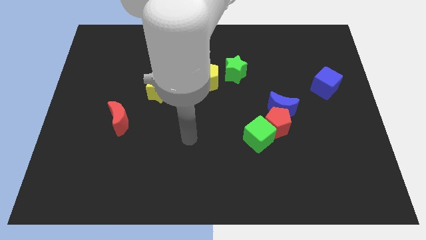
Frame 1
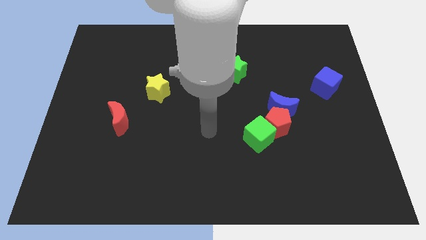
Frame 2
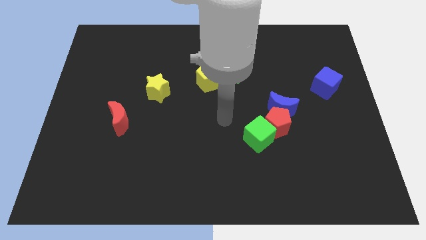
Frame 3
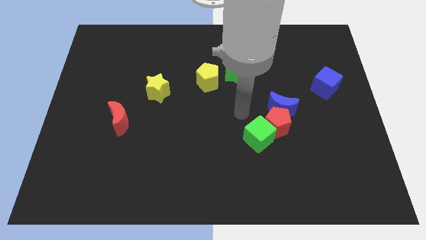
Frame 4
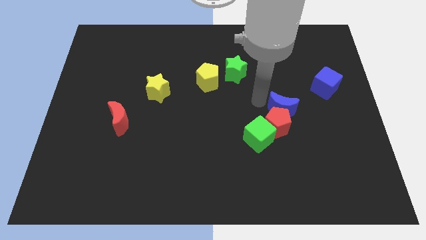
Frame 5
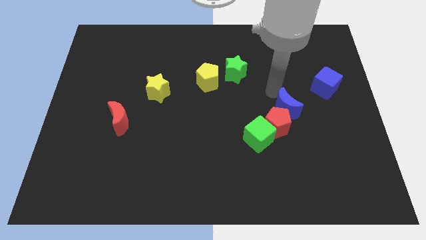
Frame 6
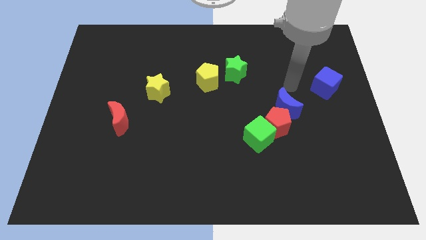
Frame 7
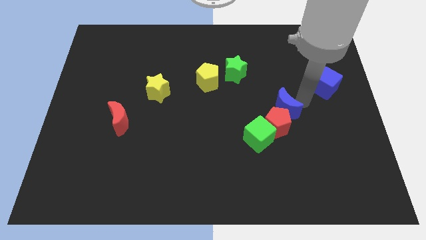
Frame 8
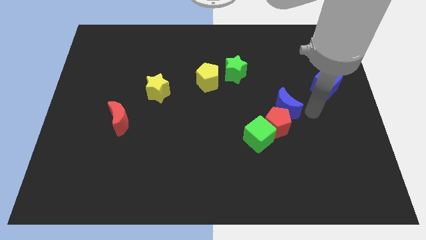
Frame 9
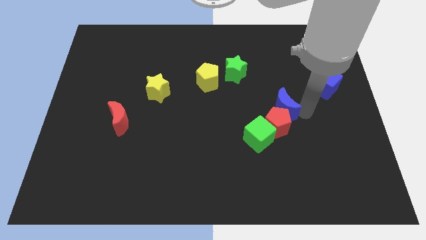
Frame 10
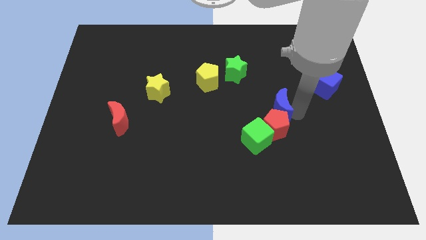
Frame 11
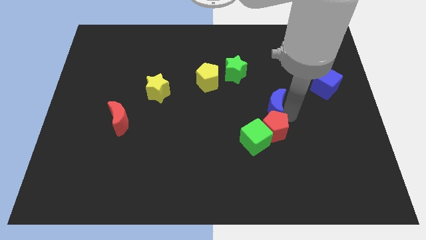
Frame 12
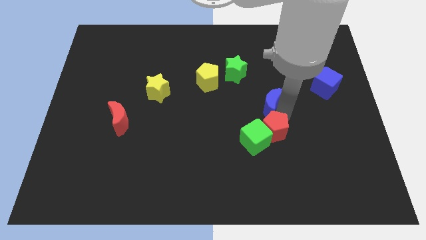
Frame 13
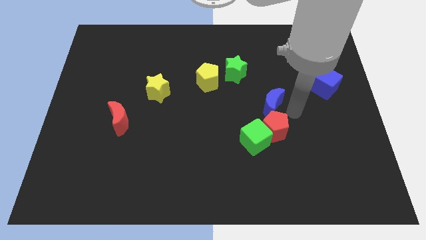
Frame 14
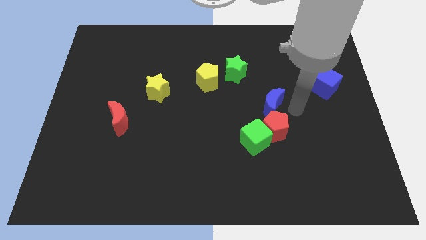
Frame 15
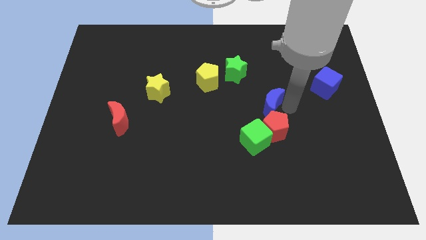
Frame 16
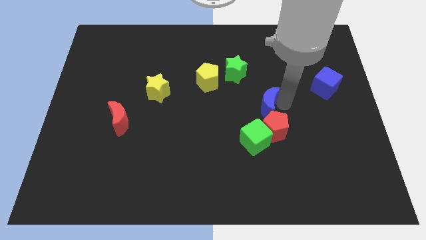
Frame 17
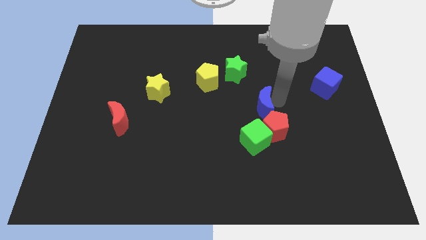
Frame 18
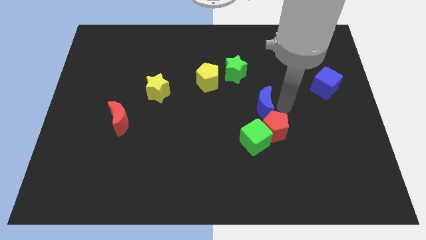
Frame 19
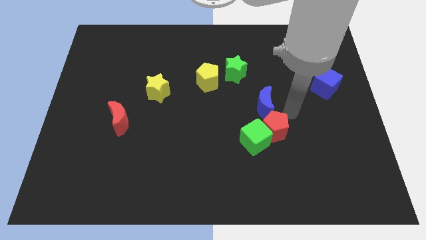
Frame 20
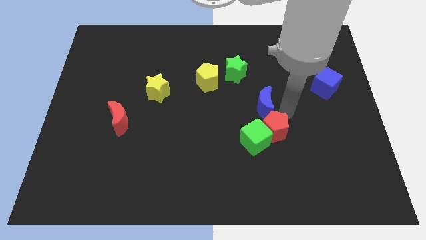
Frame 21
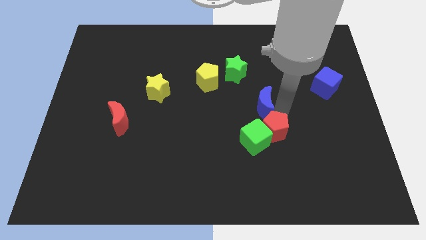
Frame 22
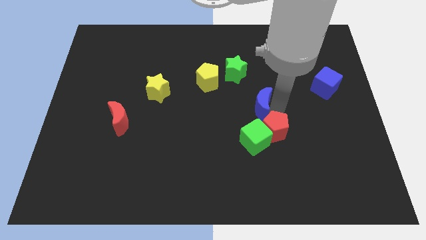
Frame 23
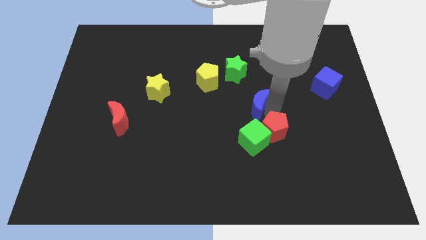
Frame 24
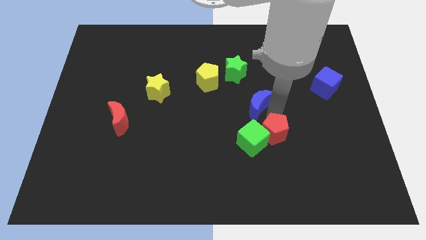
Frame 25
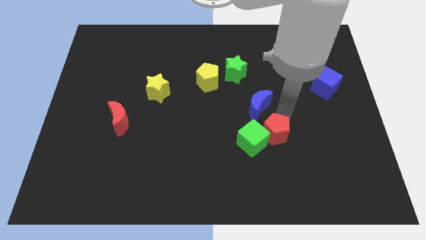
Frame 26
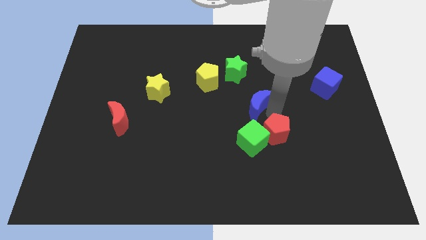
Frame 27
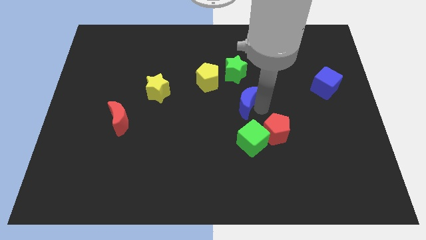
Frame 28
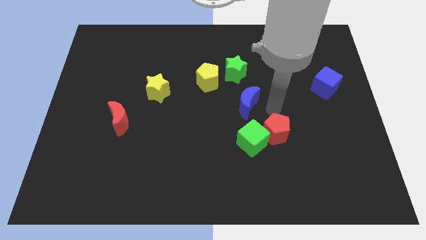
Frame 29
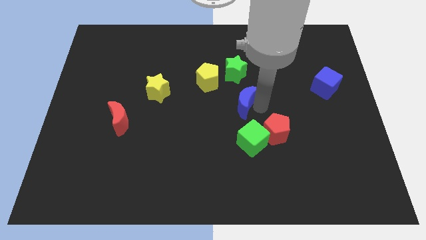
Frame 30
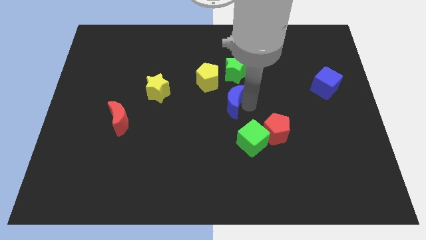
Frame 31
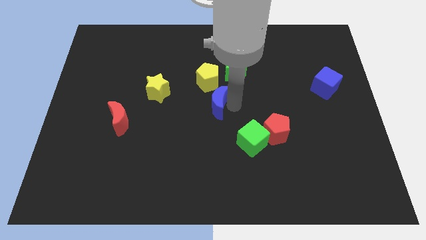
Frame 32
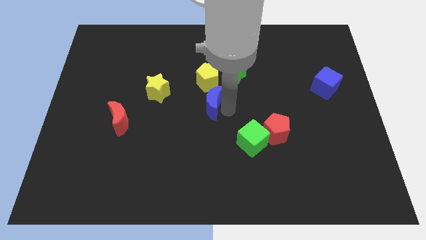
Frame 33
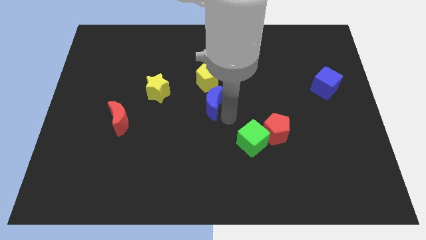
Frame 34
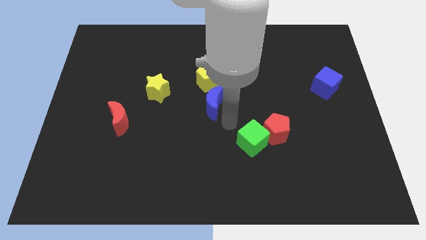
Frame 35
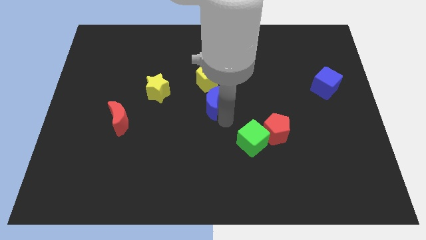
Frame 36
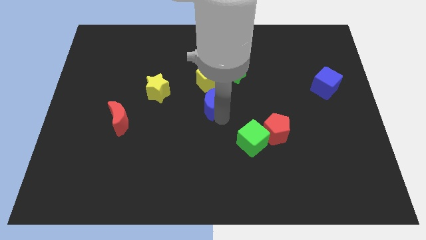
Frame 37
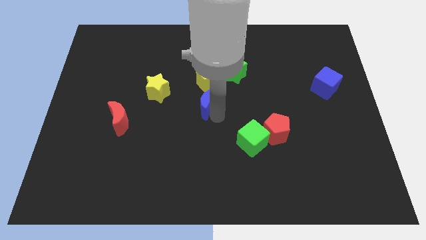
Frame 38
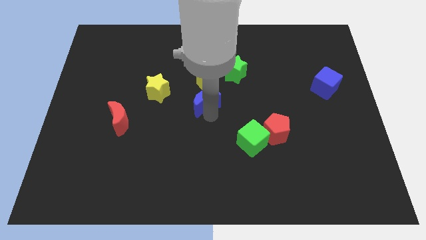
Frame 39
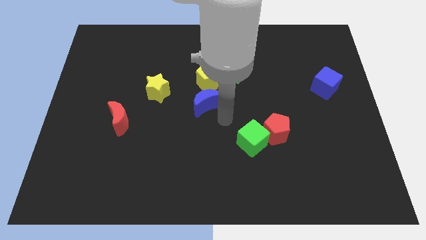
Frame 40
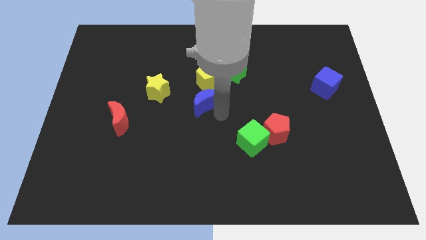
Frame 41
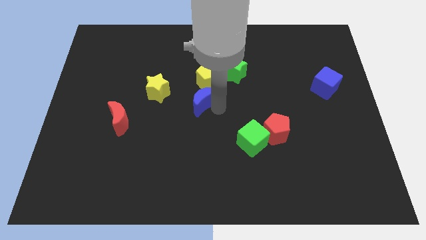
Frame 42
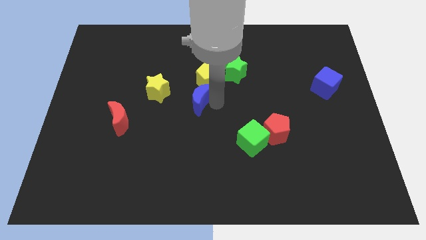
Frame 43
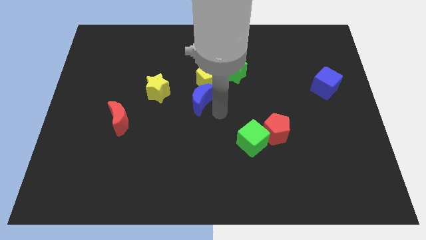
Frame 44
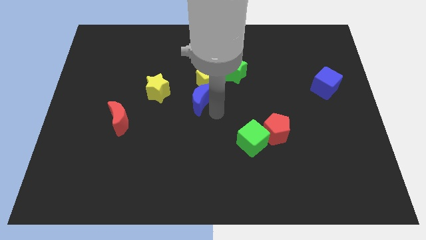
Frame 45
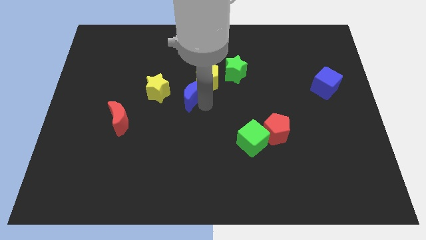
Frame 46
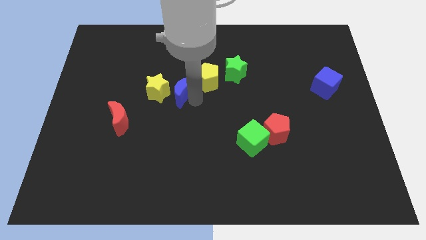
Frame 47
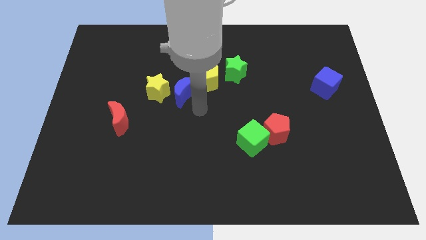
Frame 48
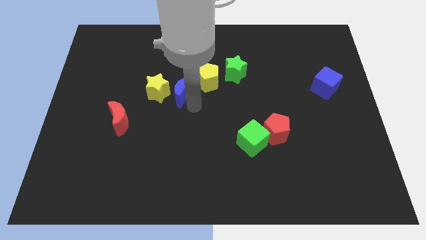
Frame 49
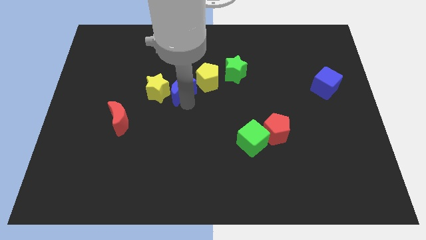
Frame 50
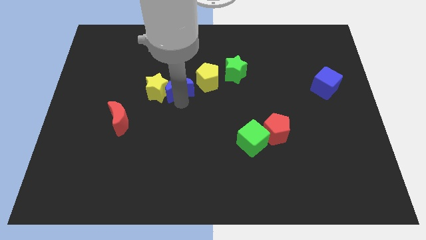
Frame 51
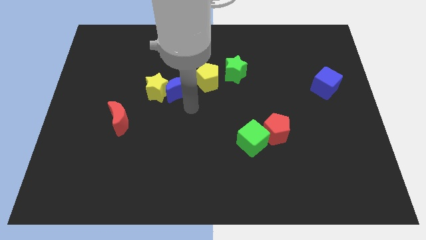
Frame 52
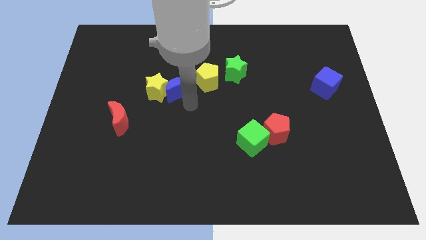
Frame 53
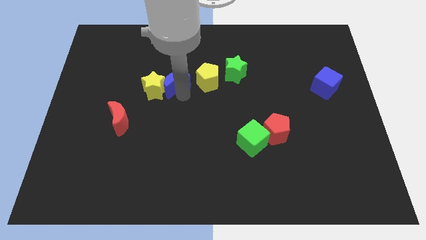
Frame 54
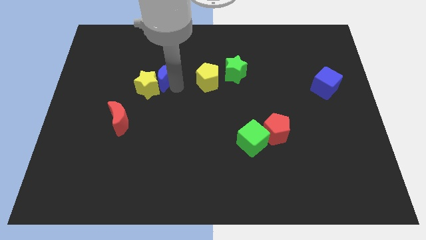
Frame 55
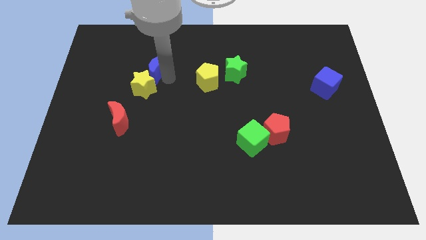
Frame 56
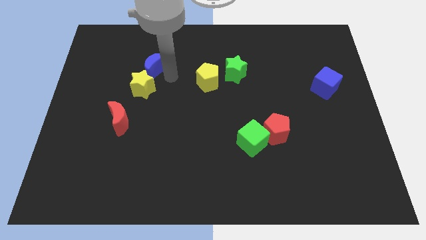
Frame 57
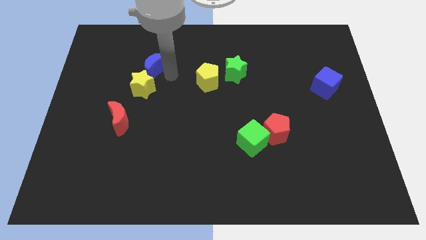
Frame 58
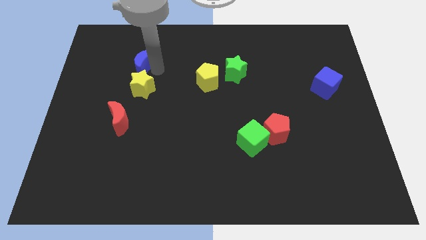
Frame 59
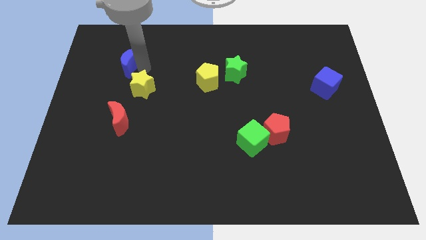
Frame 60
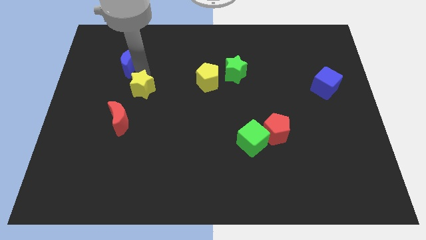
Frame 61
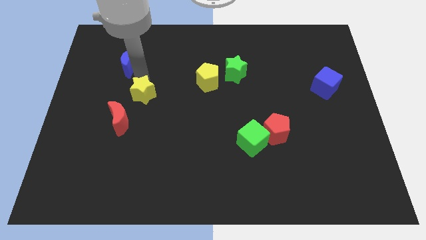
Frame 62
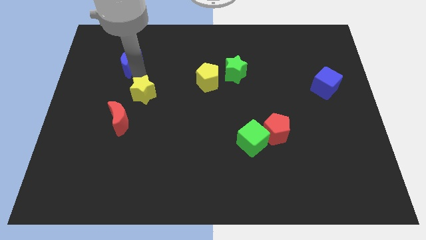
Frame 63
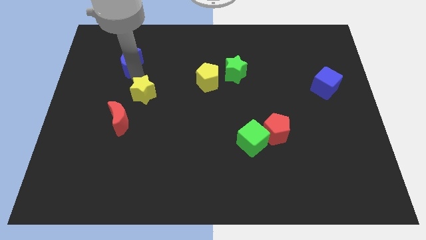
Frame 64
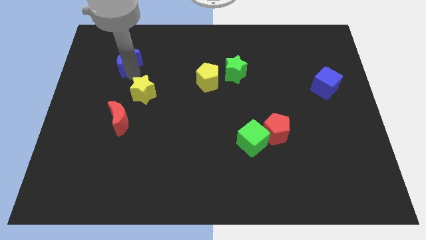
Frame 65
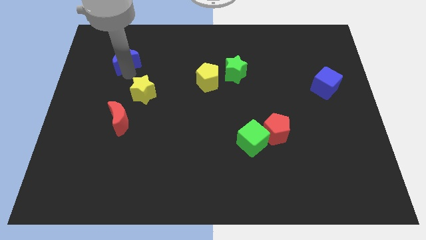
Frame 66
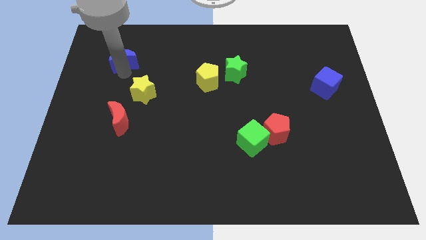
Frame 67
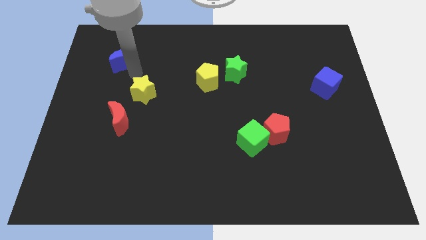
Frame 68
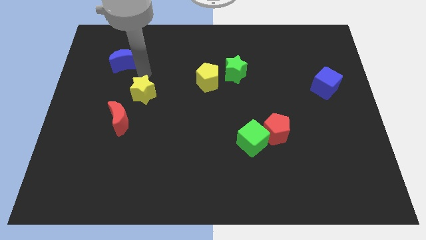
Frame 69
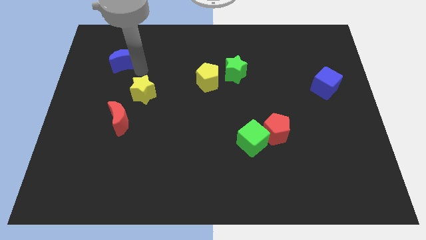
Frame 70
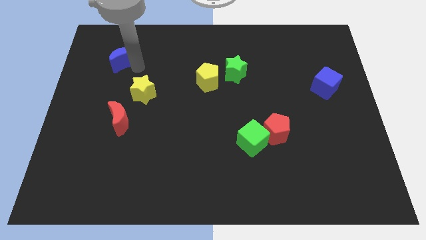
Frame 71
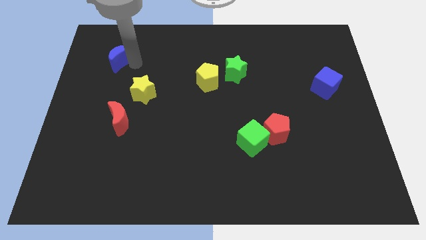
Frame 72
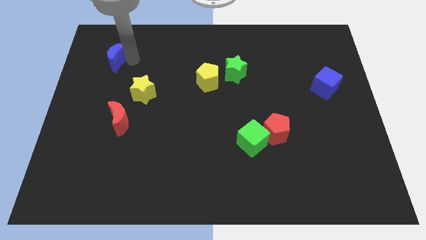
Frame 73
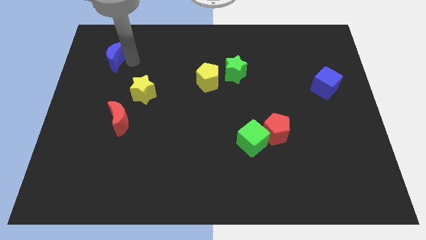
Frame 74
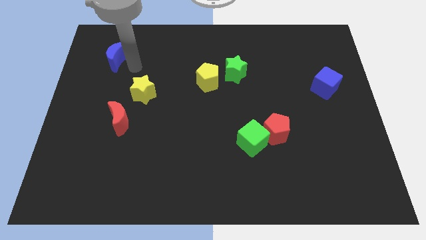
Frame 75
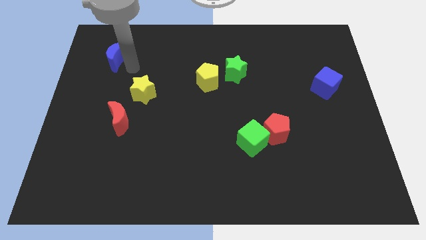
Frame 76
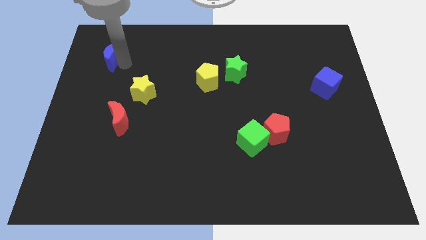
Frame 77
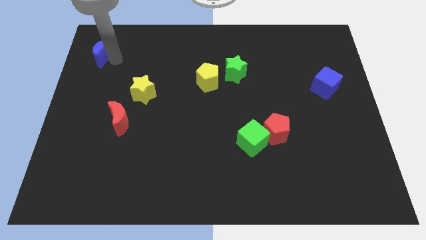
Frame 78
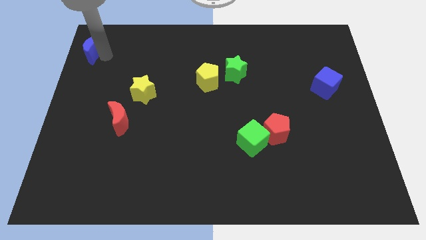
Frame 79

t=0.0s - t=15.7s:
slide the blue moon to the top left corner
